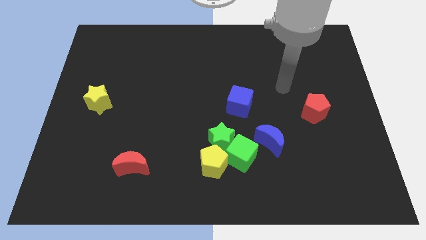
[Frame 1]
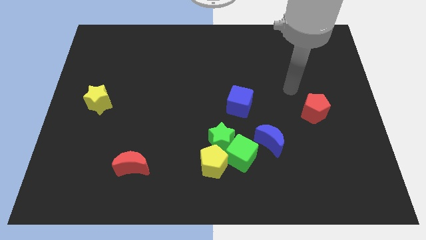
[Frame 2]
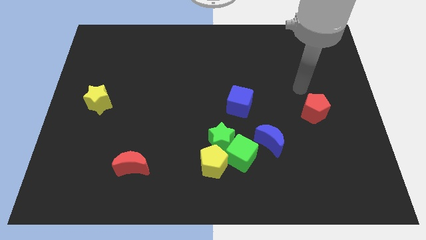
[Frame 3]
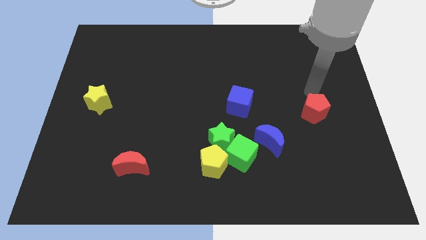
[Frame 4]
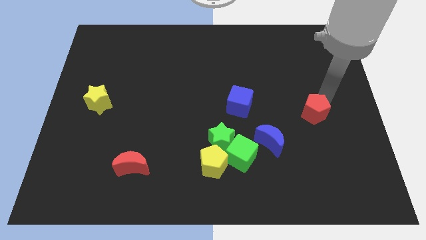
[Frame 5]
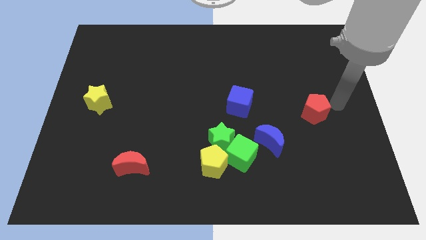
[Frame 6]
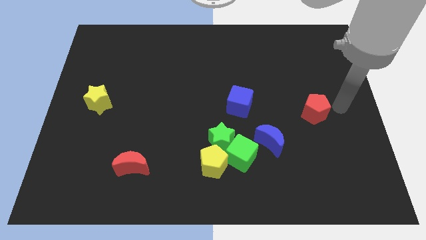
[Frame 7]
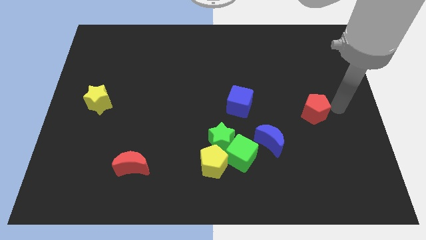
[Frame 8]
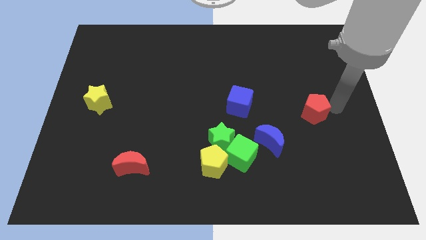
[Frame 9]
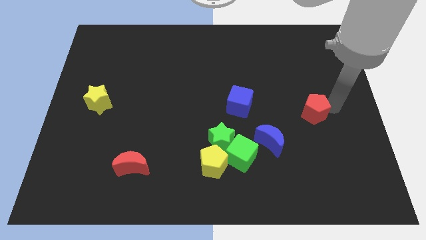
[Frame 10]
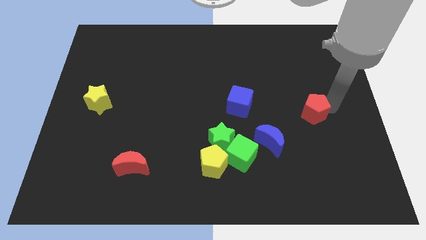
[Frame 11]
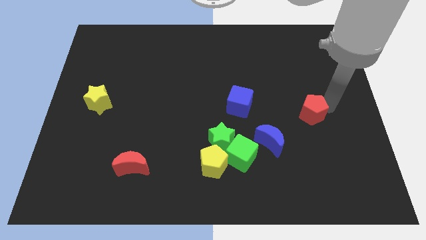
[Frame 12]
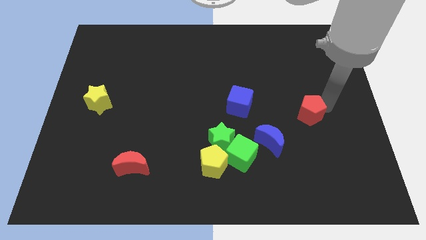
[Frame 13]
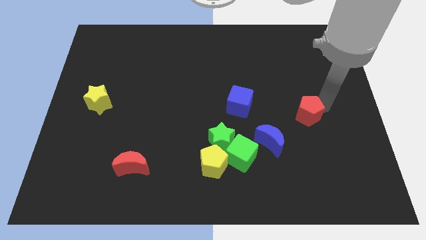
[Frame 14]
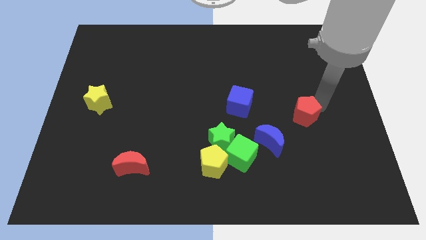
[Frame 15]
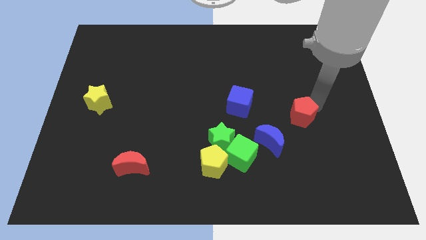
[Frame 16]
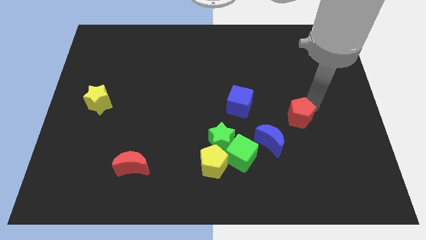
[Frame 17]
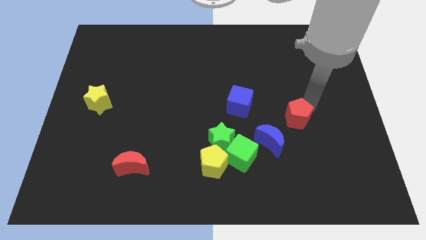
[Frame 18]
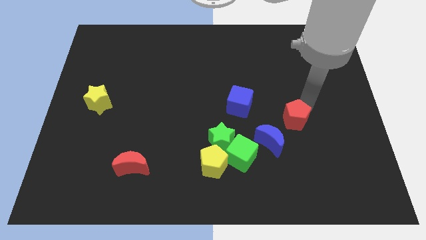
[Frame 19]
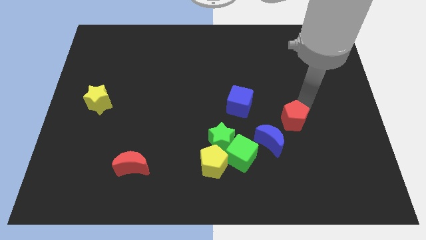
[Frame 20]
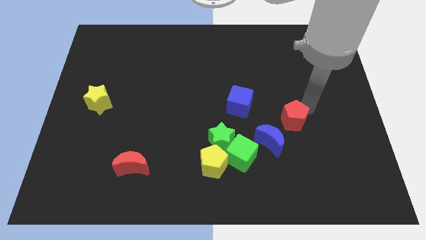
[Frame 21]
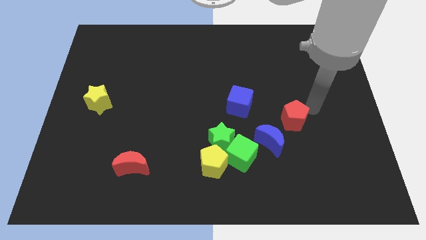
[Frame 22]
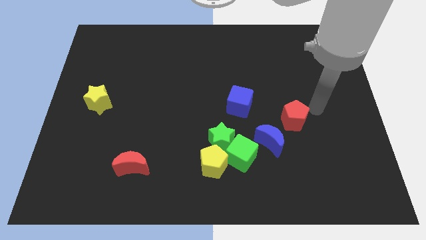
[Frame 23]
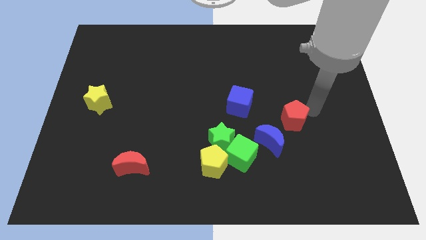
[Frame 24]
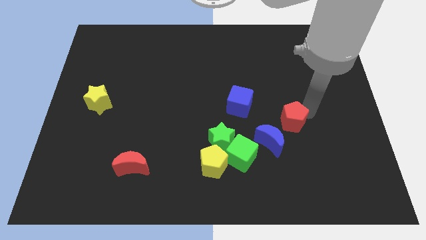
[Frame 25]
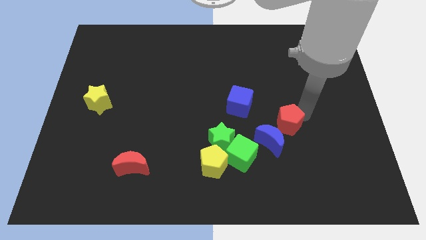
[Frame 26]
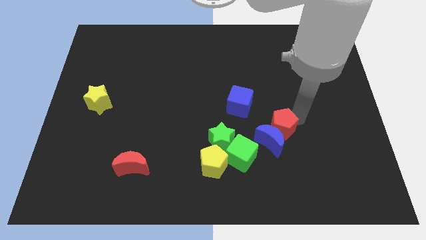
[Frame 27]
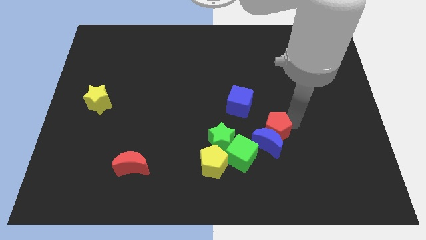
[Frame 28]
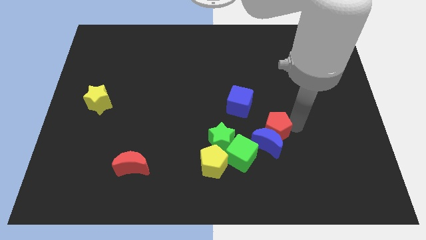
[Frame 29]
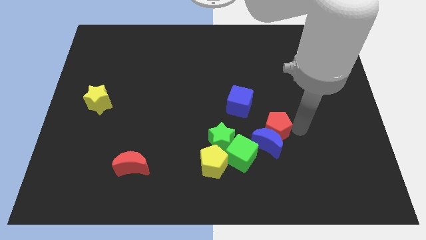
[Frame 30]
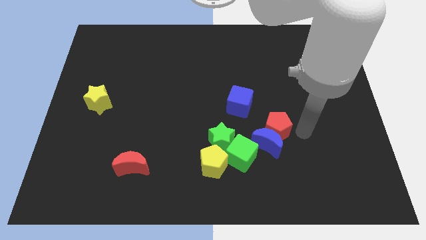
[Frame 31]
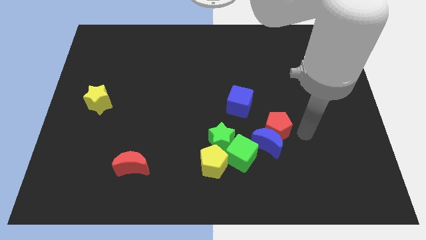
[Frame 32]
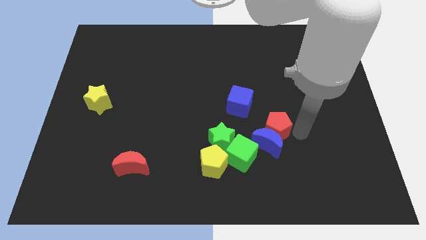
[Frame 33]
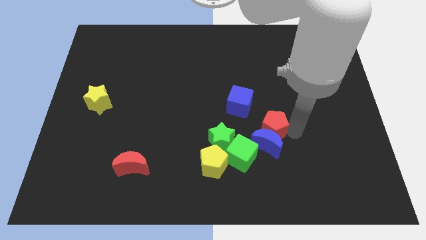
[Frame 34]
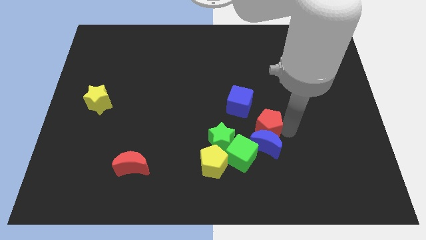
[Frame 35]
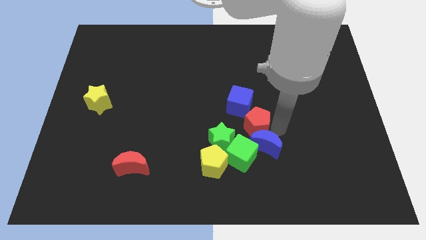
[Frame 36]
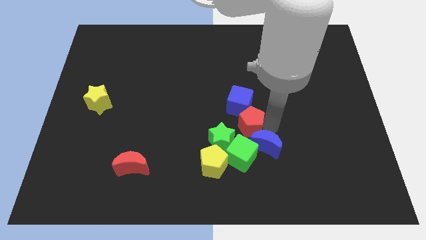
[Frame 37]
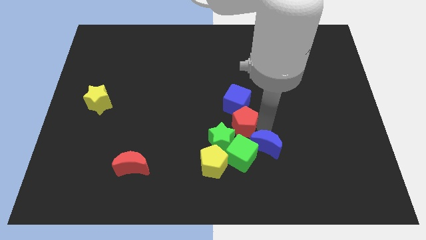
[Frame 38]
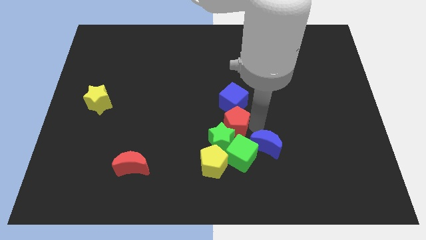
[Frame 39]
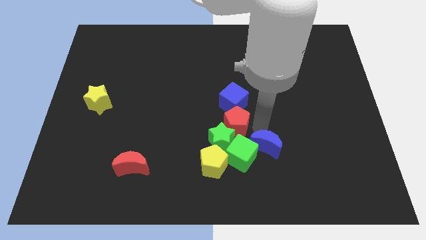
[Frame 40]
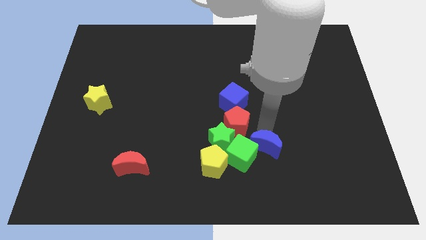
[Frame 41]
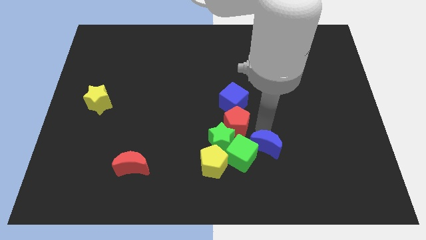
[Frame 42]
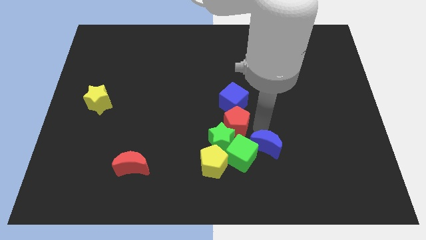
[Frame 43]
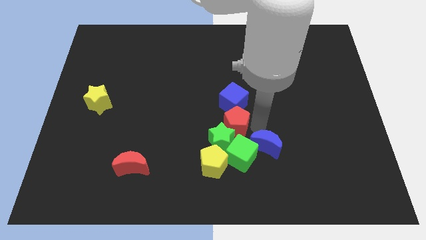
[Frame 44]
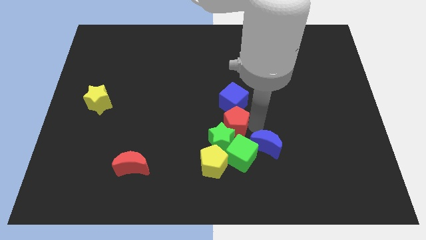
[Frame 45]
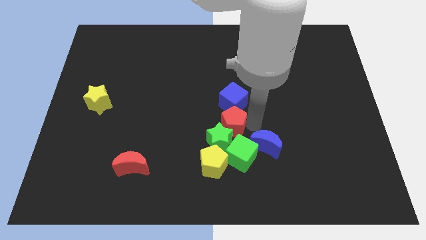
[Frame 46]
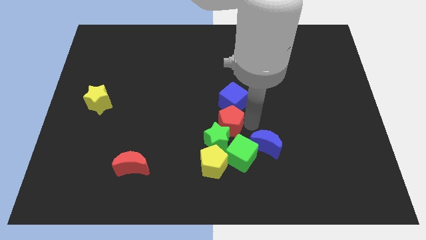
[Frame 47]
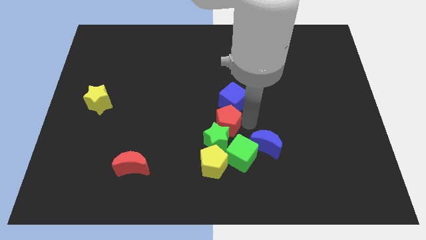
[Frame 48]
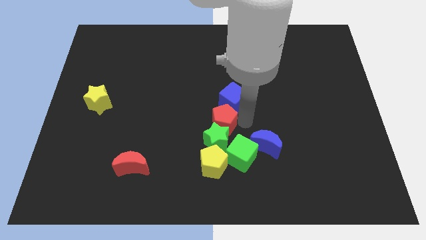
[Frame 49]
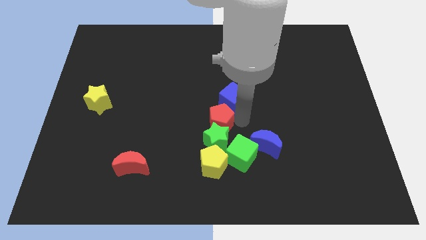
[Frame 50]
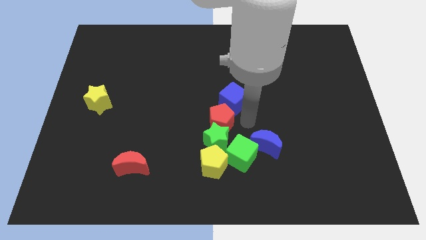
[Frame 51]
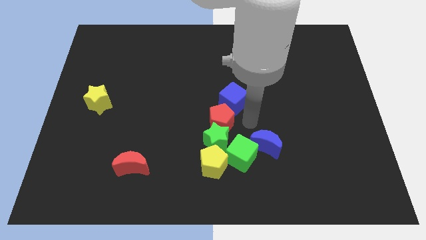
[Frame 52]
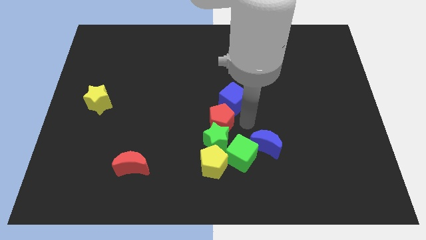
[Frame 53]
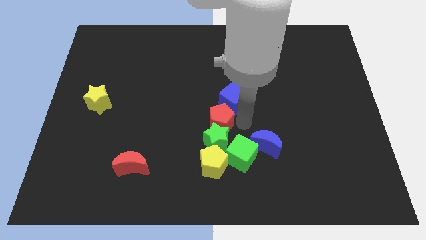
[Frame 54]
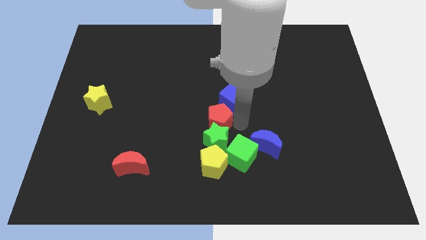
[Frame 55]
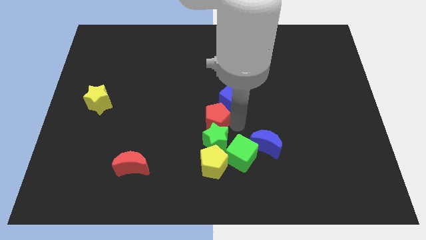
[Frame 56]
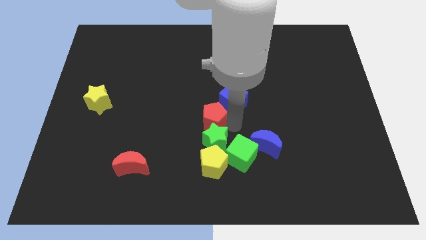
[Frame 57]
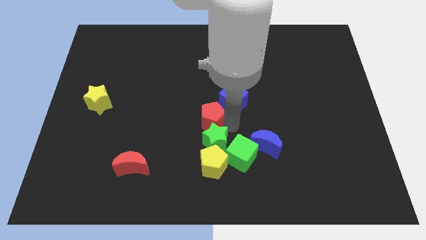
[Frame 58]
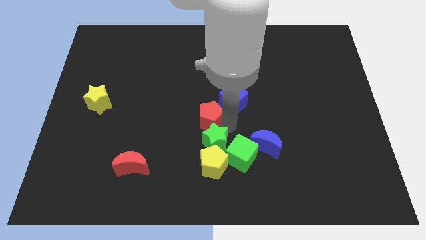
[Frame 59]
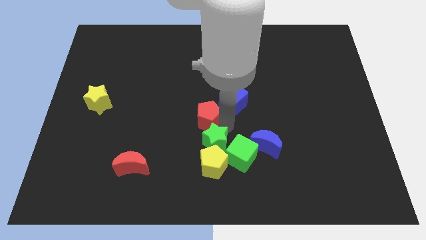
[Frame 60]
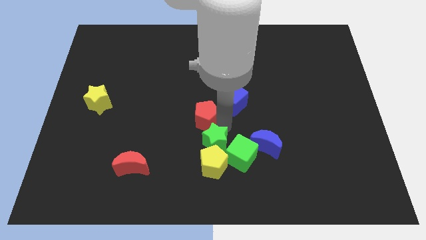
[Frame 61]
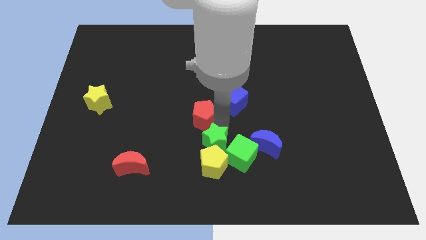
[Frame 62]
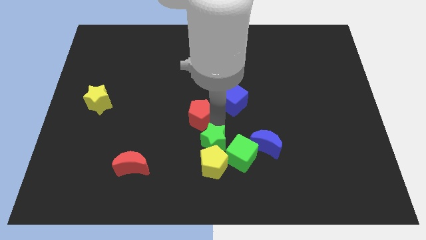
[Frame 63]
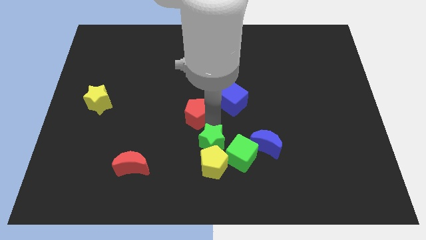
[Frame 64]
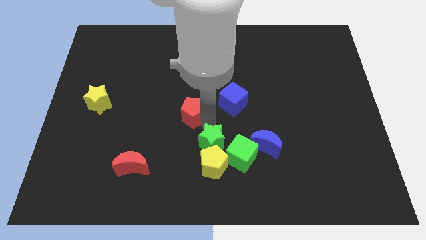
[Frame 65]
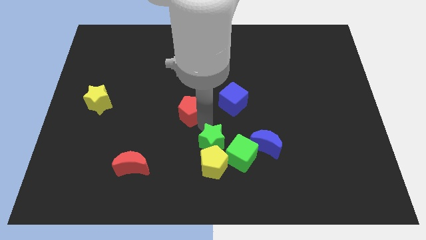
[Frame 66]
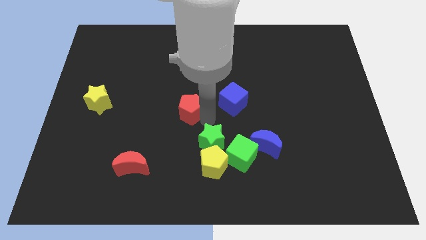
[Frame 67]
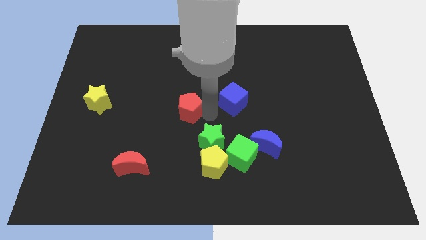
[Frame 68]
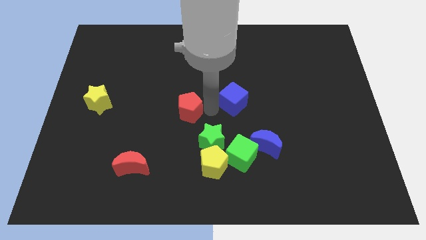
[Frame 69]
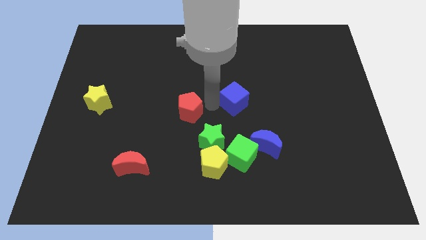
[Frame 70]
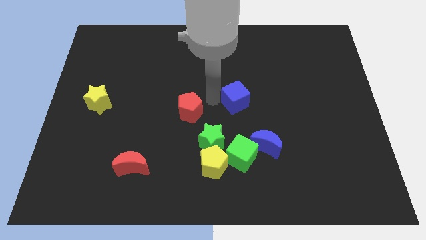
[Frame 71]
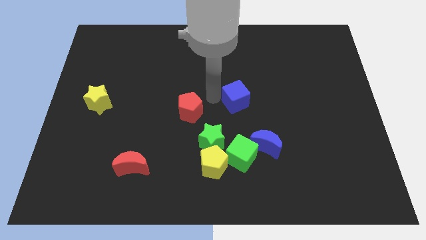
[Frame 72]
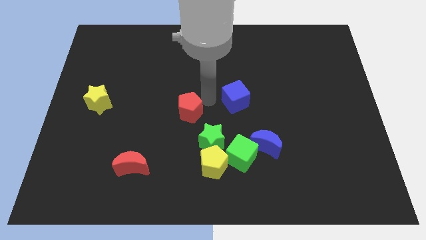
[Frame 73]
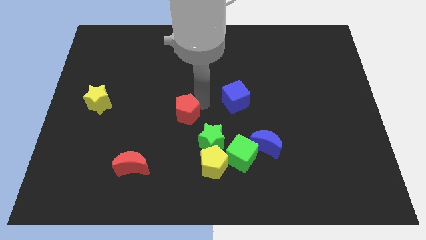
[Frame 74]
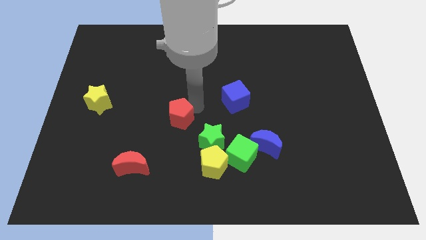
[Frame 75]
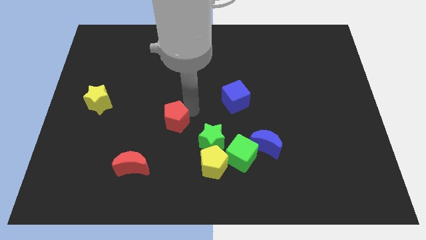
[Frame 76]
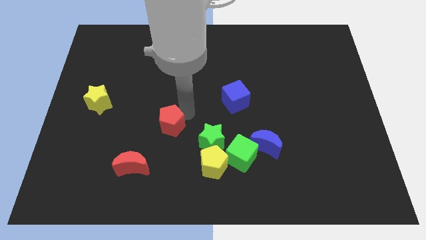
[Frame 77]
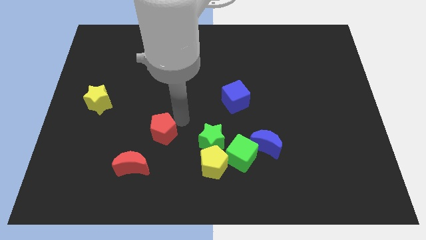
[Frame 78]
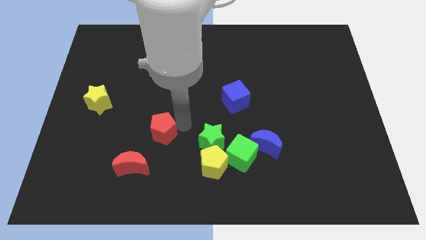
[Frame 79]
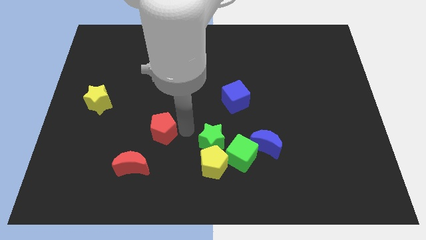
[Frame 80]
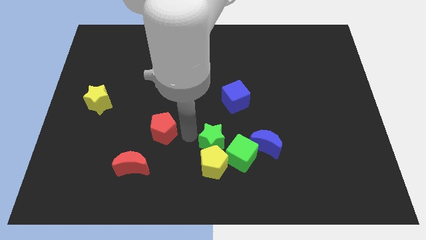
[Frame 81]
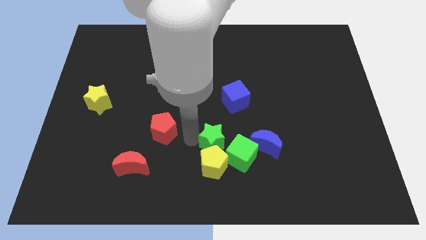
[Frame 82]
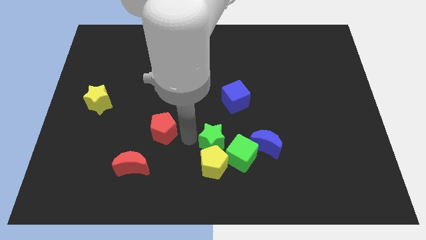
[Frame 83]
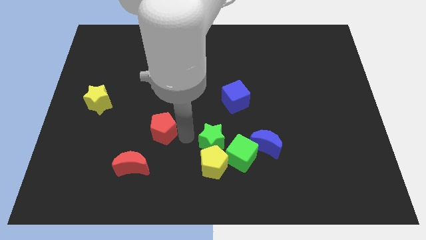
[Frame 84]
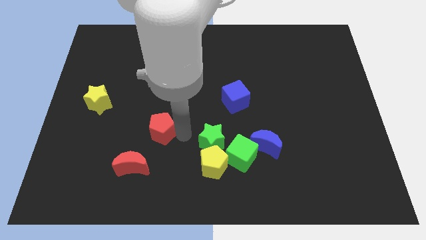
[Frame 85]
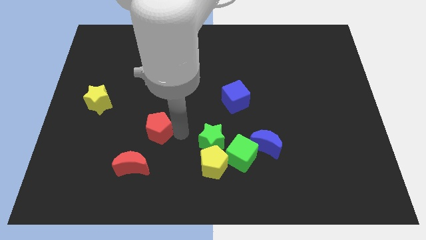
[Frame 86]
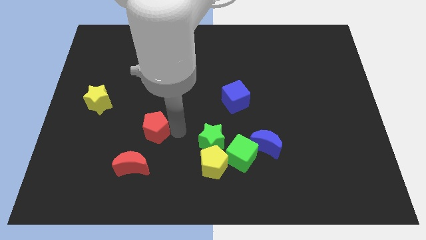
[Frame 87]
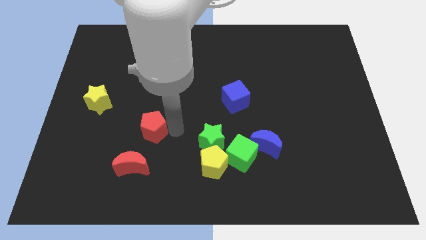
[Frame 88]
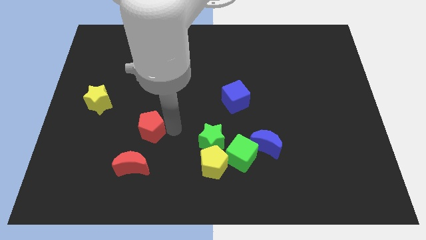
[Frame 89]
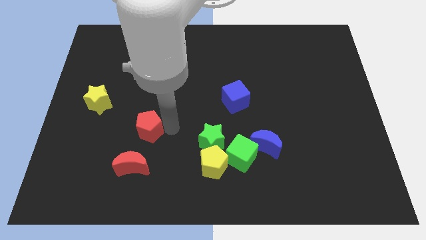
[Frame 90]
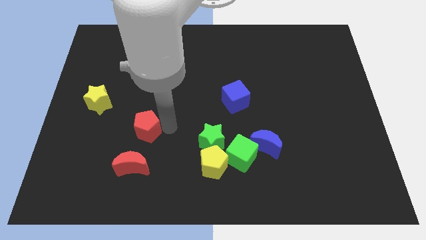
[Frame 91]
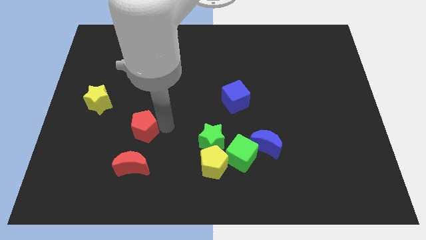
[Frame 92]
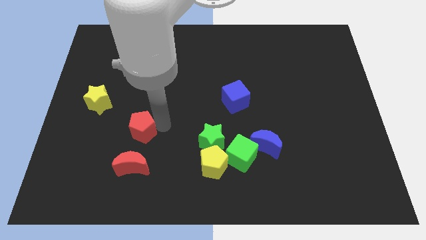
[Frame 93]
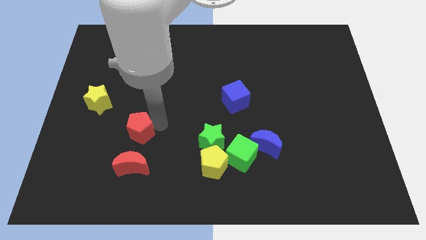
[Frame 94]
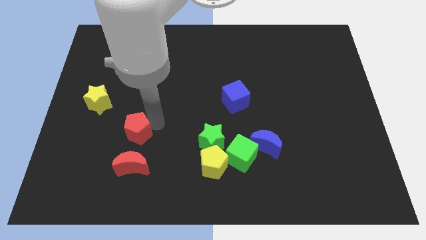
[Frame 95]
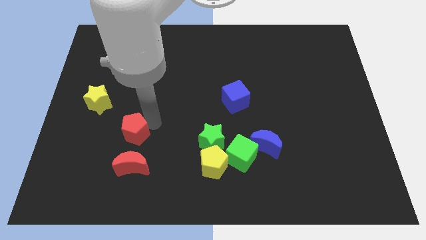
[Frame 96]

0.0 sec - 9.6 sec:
put the red pentagon to the bottom right side of the yellow star
